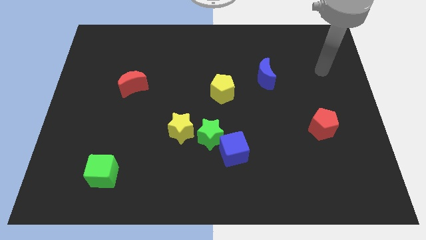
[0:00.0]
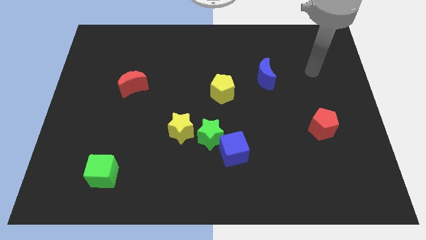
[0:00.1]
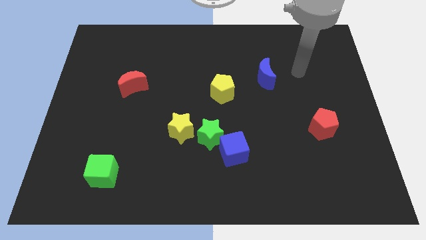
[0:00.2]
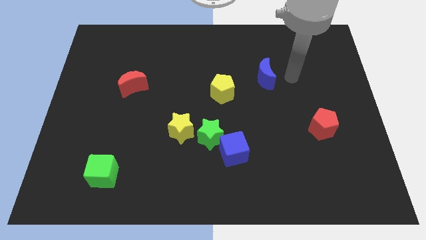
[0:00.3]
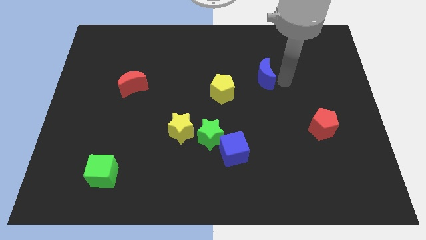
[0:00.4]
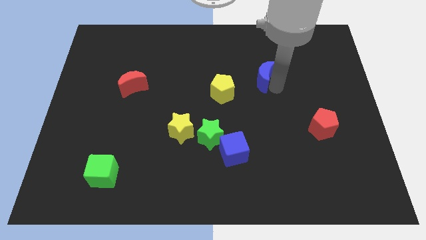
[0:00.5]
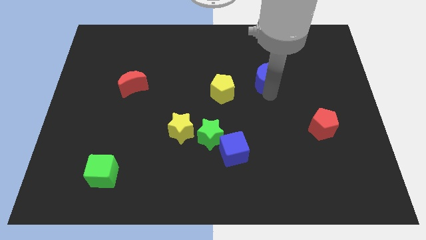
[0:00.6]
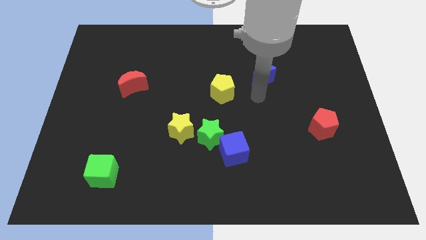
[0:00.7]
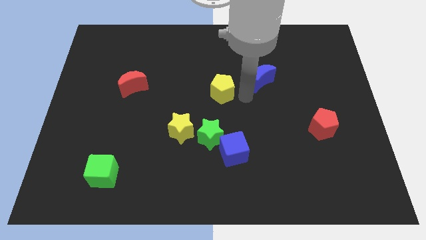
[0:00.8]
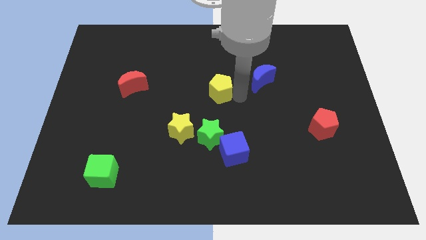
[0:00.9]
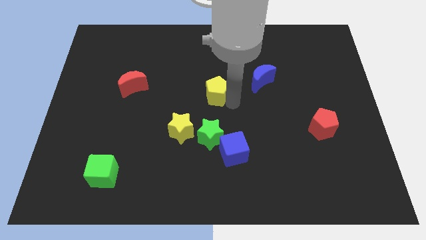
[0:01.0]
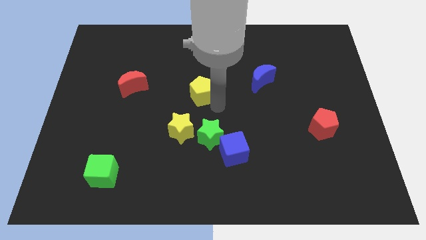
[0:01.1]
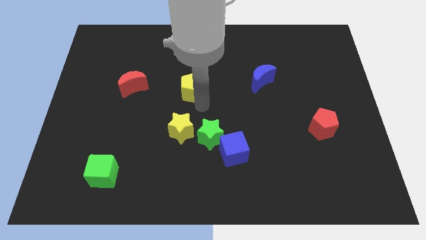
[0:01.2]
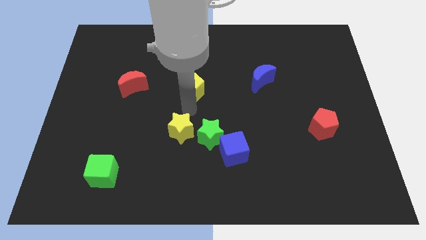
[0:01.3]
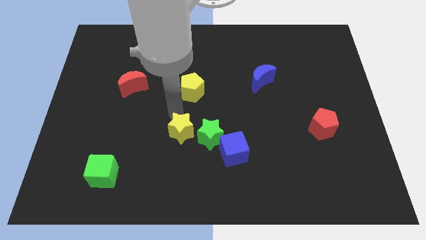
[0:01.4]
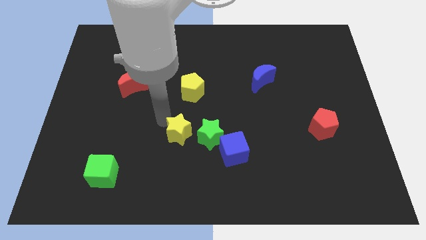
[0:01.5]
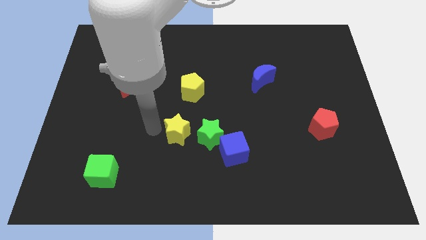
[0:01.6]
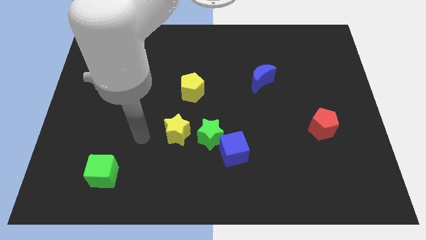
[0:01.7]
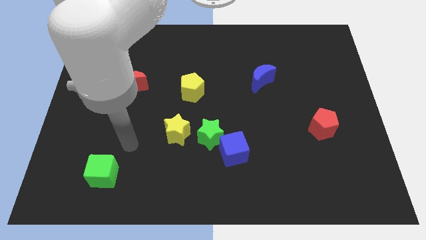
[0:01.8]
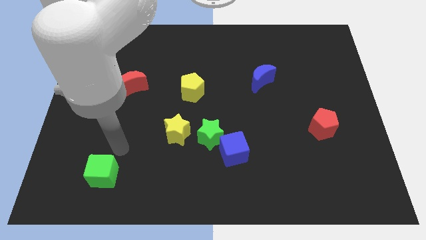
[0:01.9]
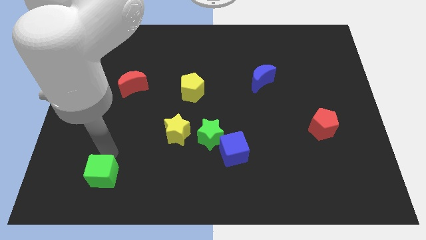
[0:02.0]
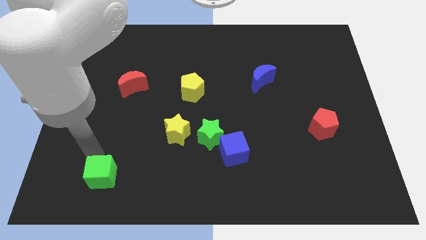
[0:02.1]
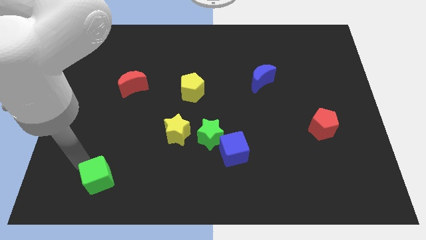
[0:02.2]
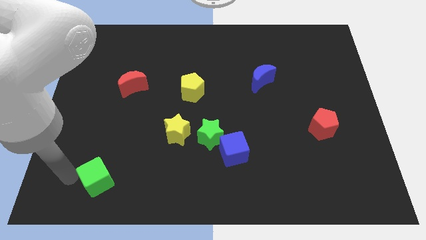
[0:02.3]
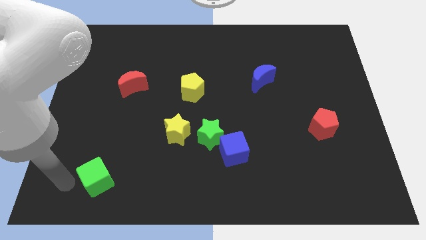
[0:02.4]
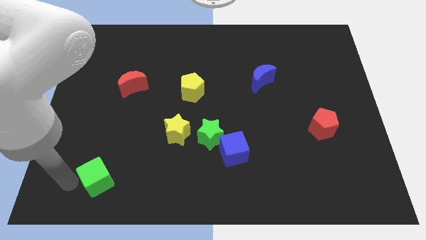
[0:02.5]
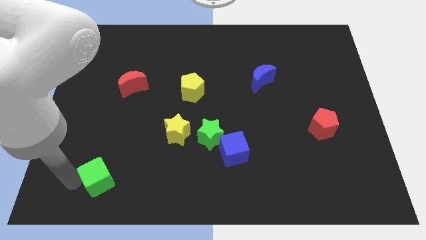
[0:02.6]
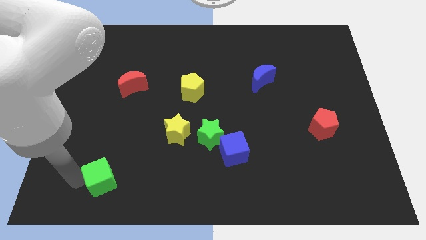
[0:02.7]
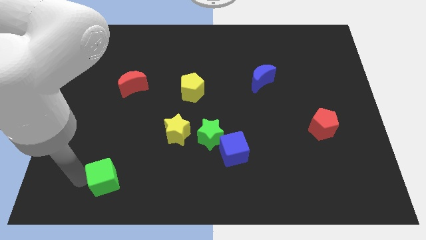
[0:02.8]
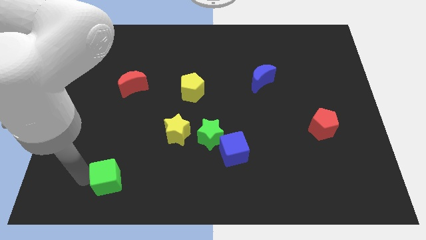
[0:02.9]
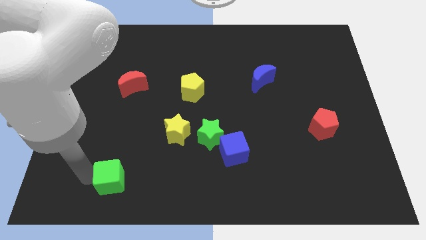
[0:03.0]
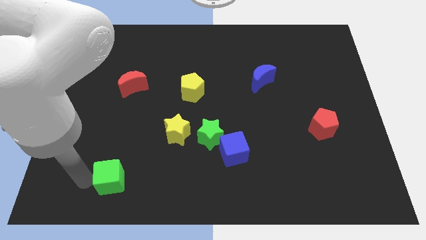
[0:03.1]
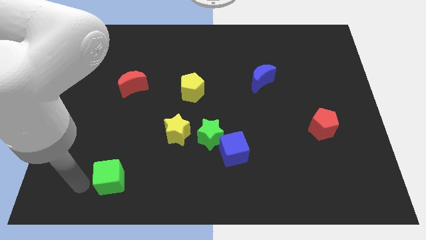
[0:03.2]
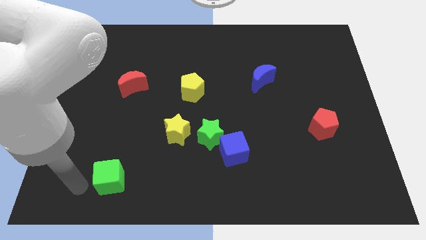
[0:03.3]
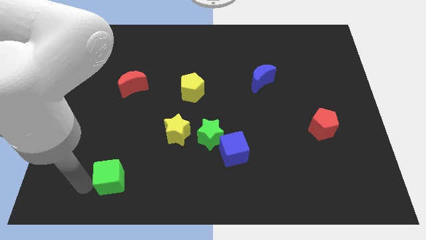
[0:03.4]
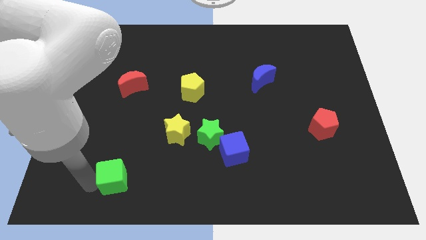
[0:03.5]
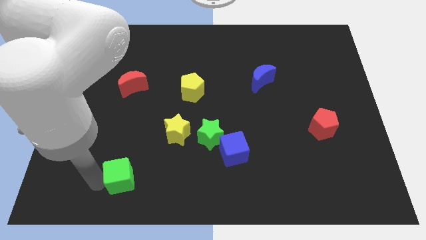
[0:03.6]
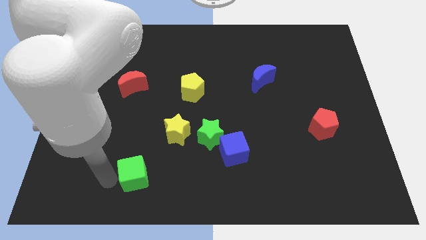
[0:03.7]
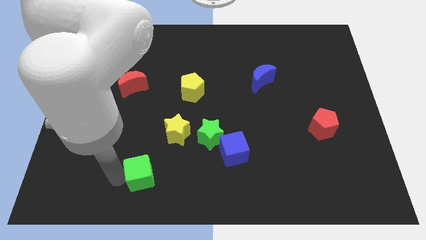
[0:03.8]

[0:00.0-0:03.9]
push the green cube slightly right

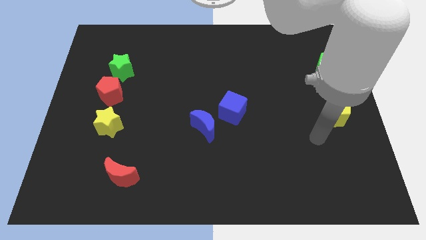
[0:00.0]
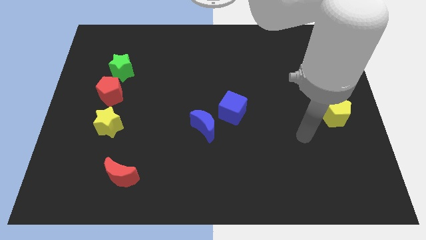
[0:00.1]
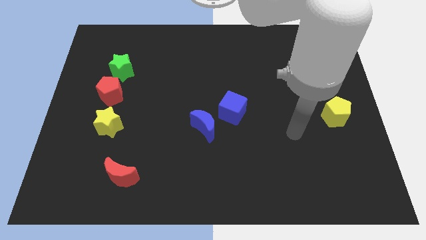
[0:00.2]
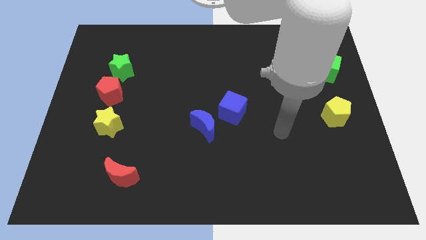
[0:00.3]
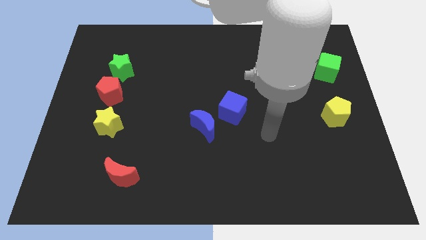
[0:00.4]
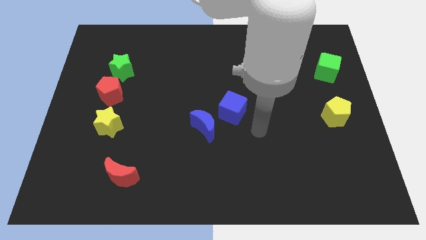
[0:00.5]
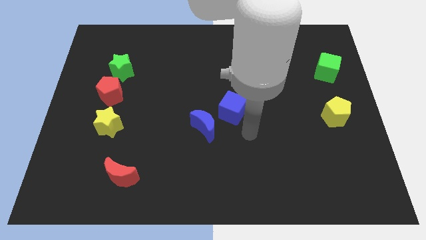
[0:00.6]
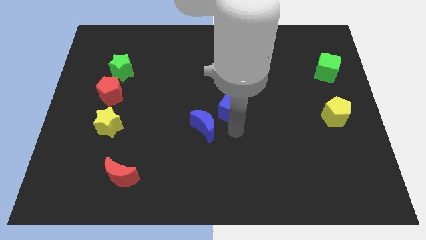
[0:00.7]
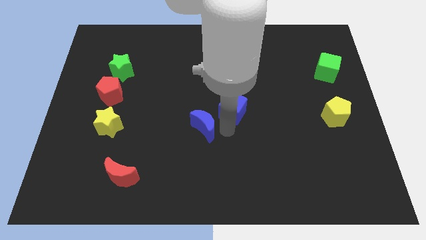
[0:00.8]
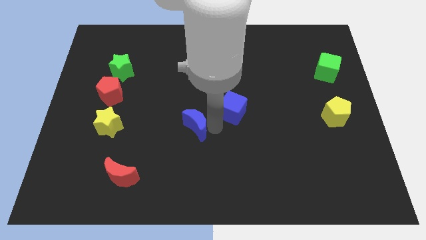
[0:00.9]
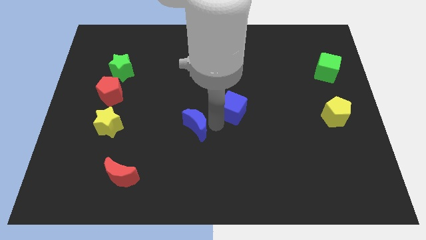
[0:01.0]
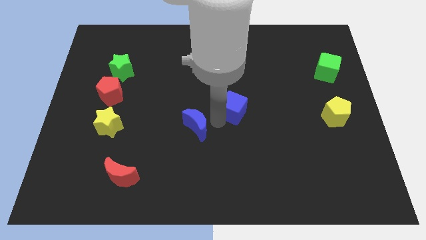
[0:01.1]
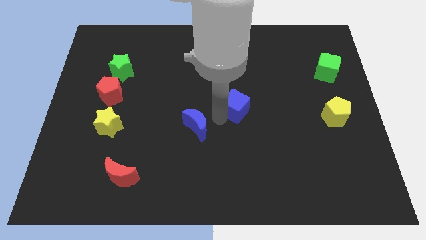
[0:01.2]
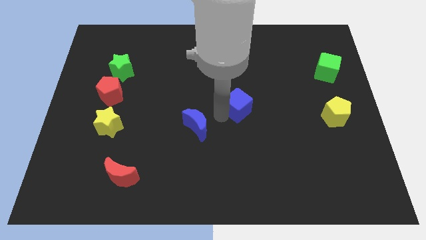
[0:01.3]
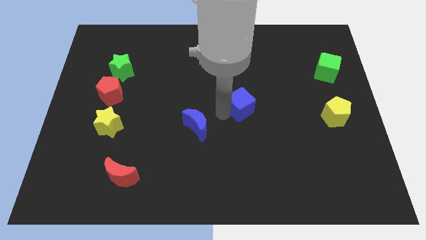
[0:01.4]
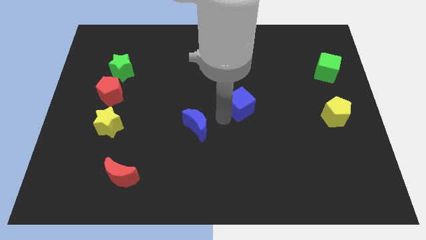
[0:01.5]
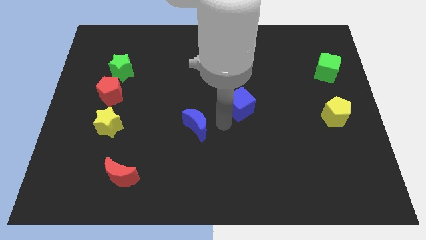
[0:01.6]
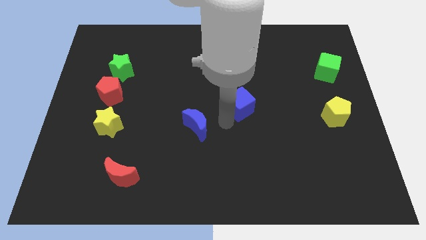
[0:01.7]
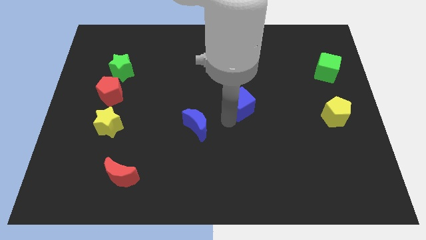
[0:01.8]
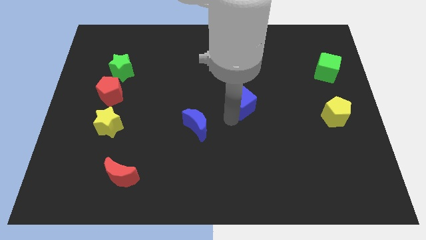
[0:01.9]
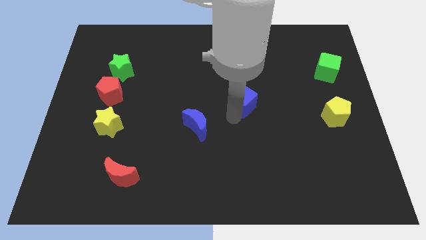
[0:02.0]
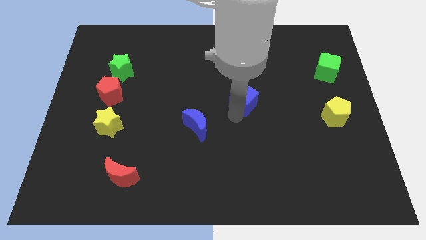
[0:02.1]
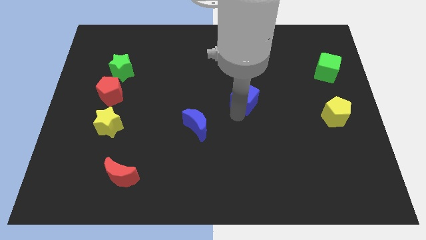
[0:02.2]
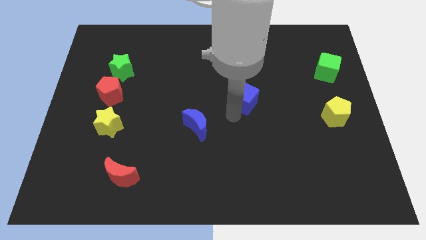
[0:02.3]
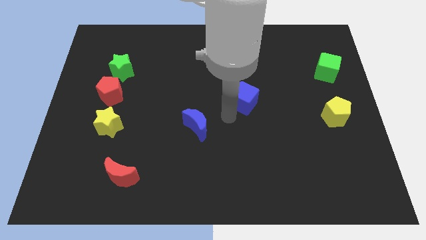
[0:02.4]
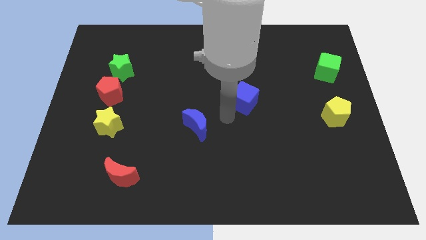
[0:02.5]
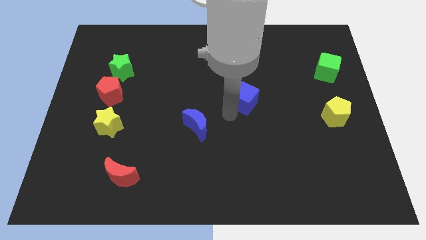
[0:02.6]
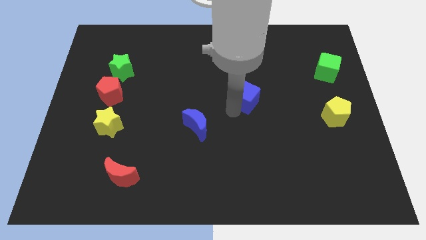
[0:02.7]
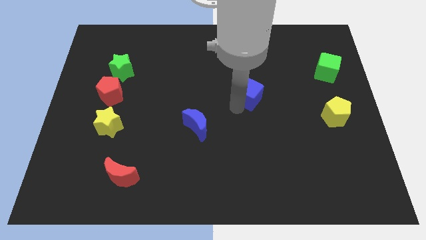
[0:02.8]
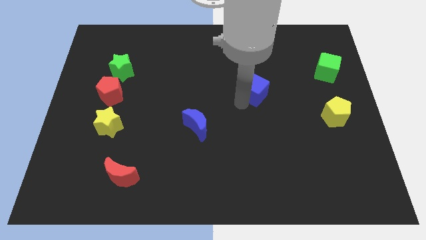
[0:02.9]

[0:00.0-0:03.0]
slide the blue cube up and to the right a bit

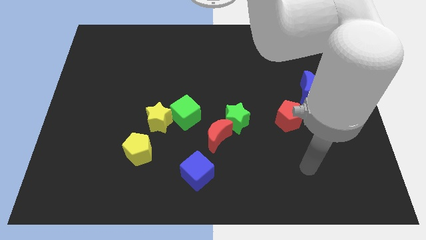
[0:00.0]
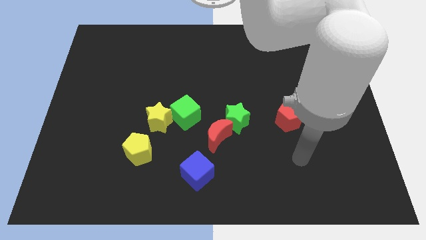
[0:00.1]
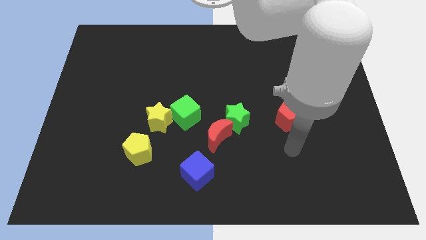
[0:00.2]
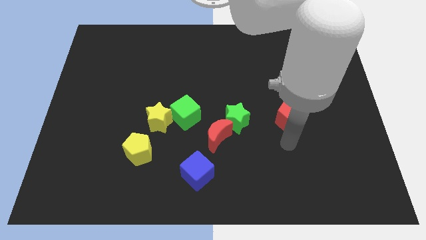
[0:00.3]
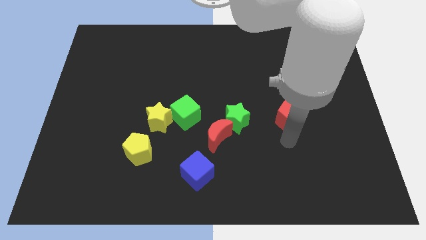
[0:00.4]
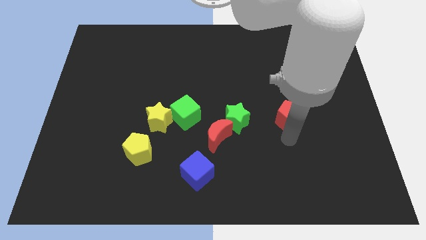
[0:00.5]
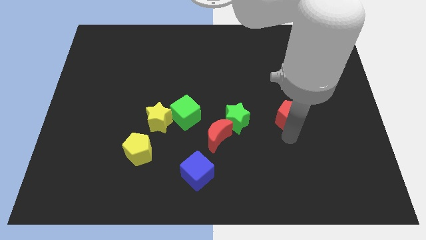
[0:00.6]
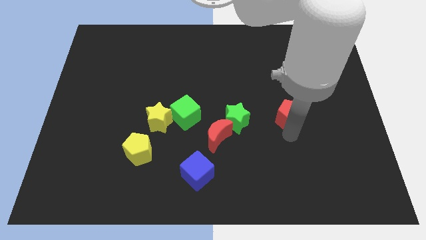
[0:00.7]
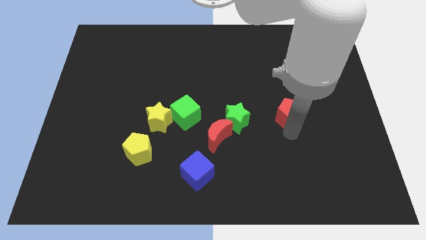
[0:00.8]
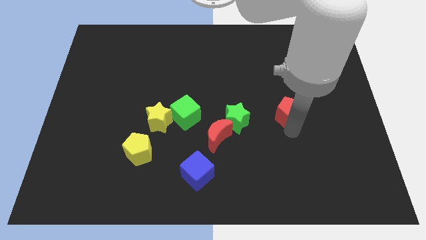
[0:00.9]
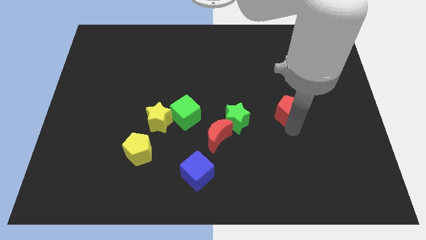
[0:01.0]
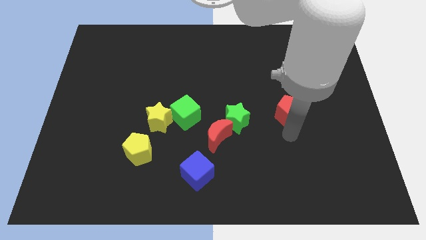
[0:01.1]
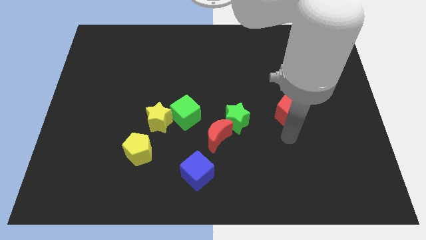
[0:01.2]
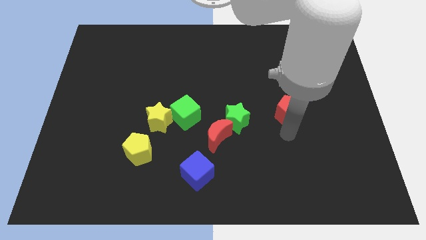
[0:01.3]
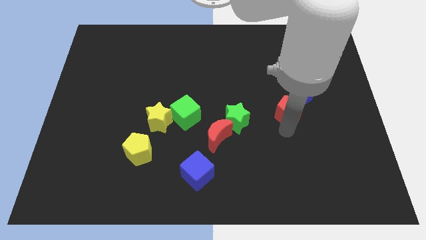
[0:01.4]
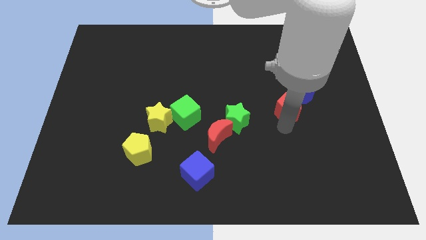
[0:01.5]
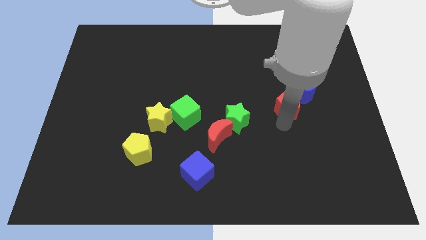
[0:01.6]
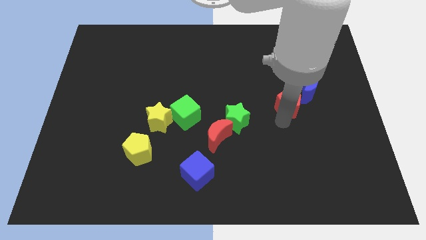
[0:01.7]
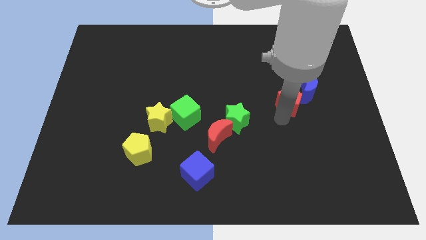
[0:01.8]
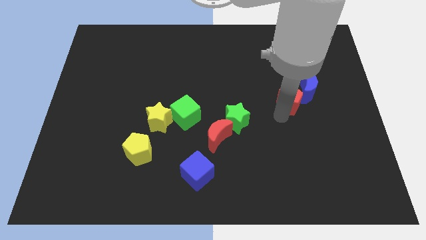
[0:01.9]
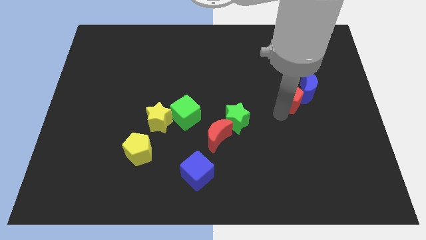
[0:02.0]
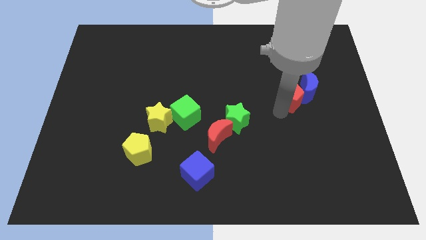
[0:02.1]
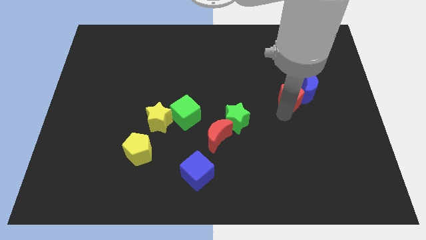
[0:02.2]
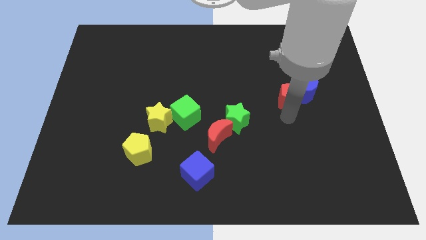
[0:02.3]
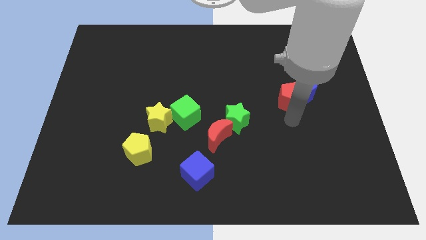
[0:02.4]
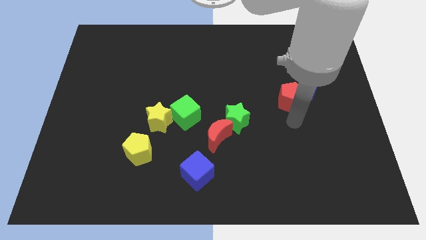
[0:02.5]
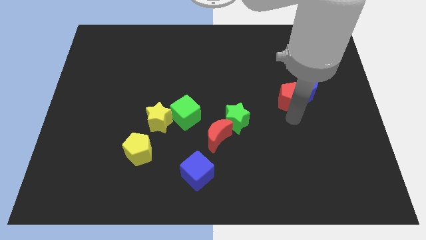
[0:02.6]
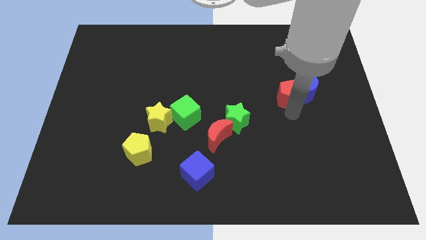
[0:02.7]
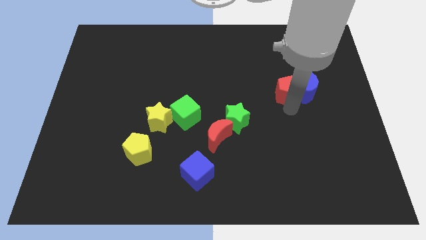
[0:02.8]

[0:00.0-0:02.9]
slightly push the red pentagon up
